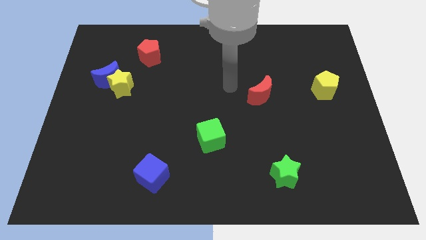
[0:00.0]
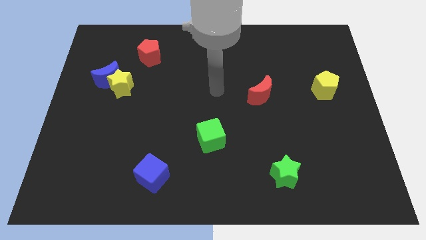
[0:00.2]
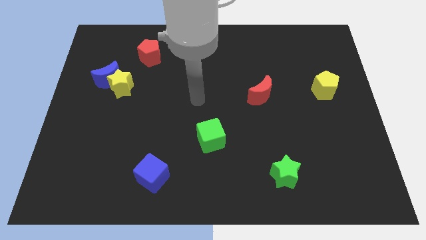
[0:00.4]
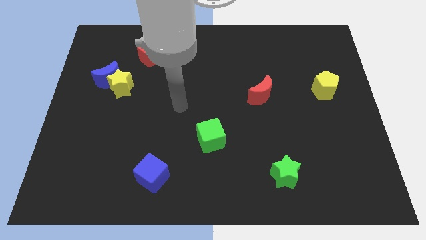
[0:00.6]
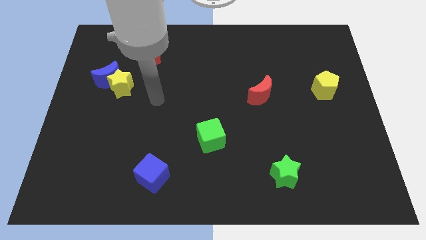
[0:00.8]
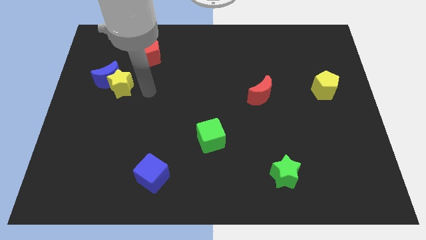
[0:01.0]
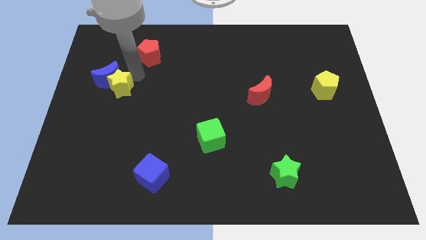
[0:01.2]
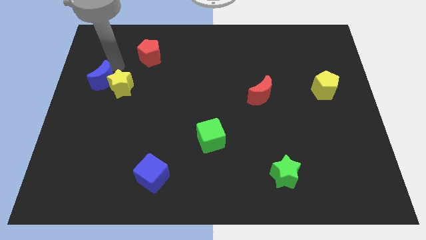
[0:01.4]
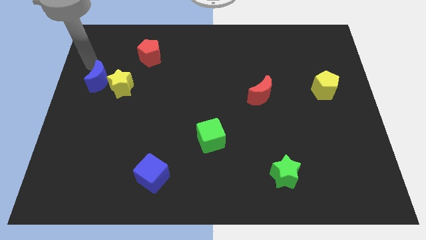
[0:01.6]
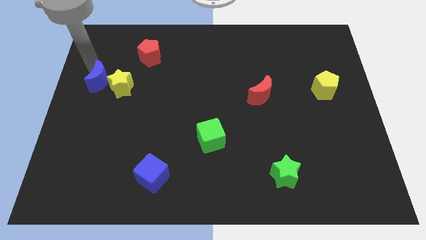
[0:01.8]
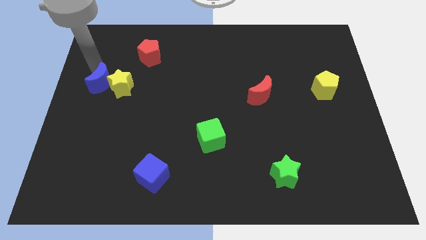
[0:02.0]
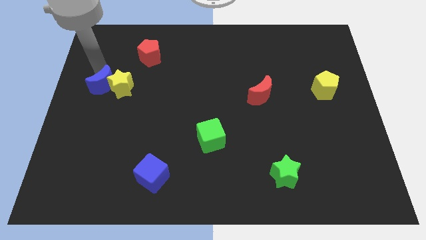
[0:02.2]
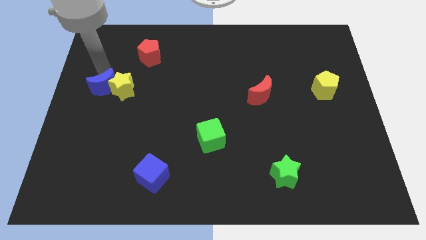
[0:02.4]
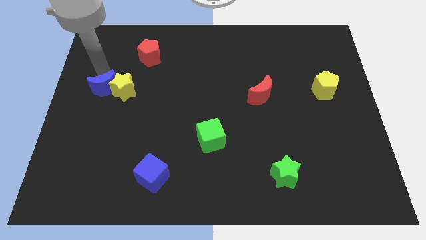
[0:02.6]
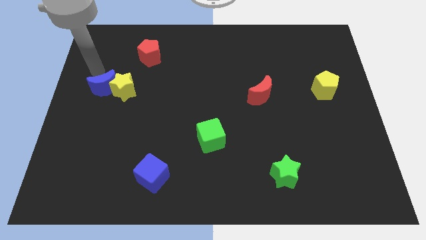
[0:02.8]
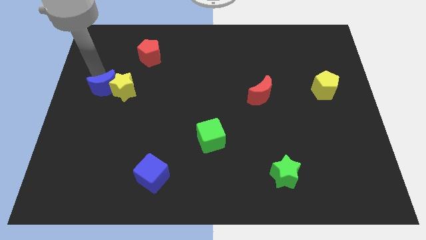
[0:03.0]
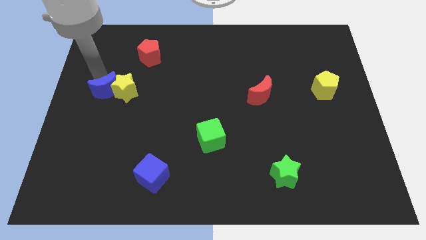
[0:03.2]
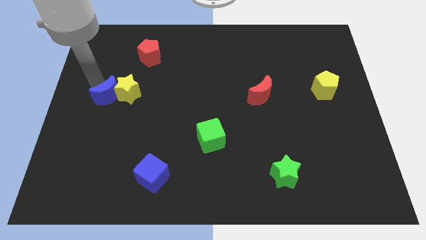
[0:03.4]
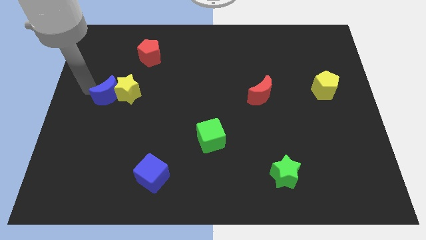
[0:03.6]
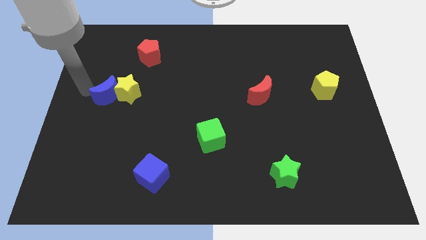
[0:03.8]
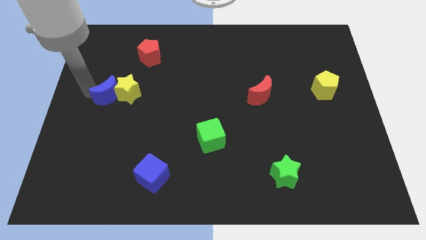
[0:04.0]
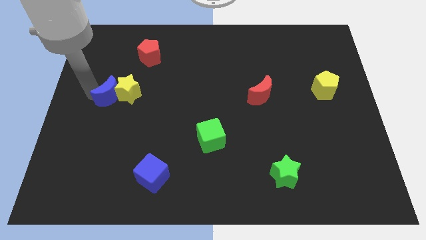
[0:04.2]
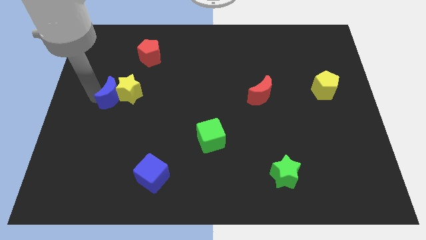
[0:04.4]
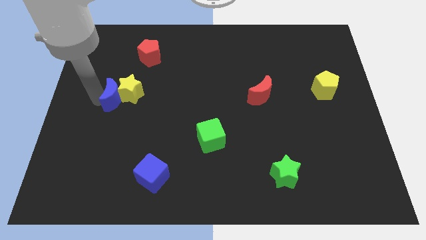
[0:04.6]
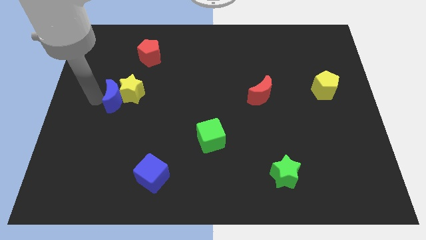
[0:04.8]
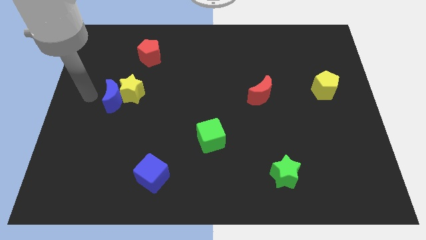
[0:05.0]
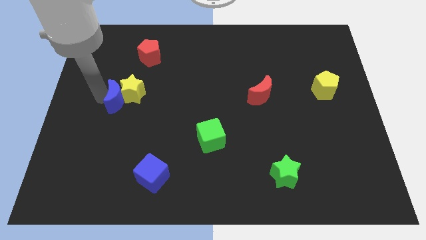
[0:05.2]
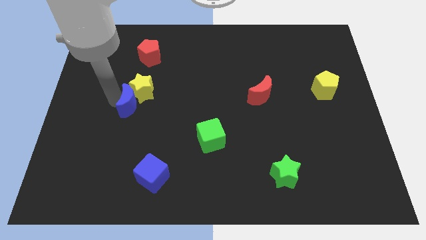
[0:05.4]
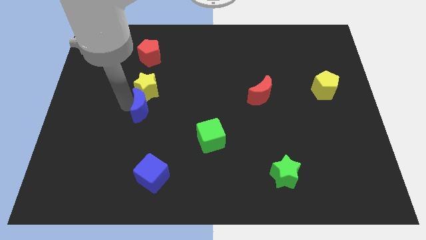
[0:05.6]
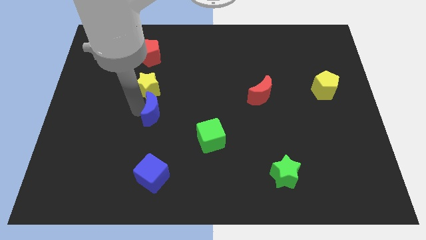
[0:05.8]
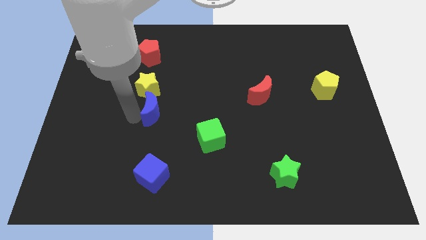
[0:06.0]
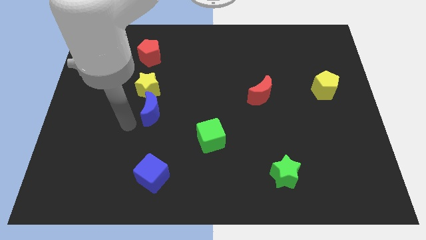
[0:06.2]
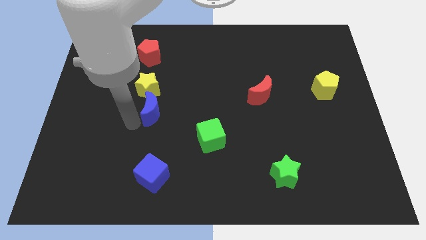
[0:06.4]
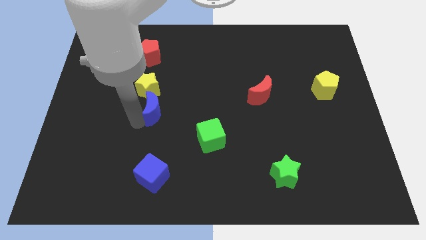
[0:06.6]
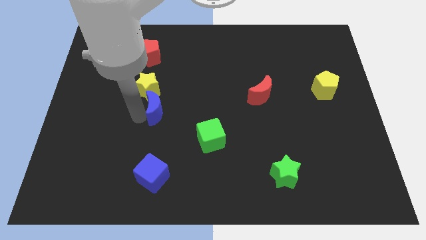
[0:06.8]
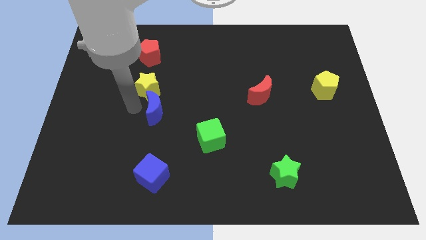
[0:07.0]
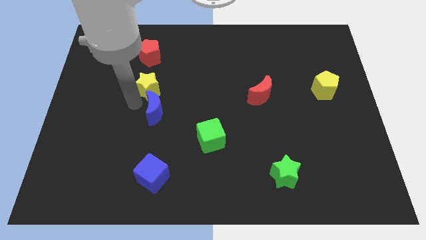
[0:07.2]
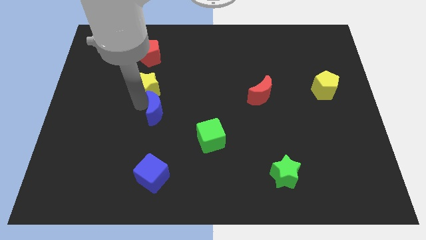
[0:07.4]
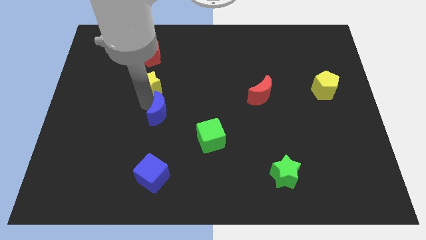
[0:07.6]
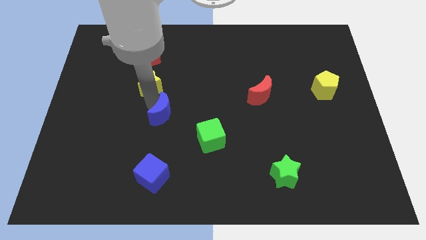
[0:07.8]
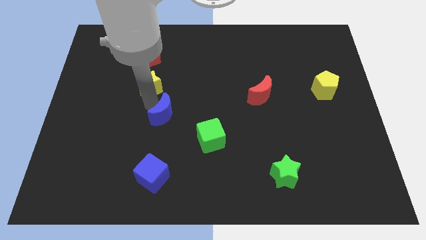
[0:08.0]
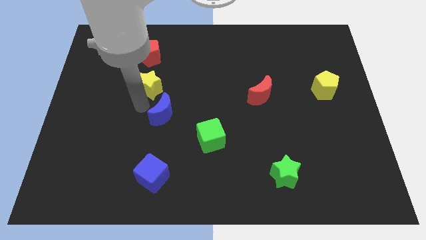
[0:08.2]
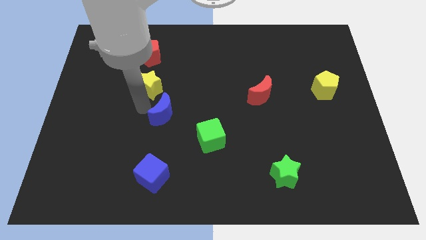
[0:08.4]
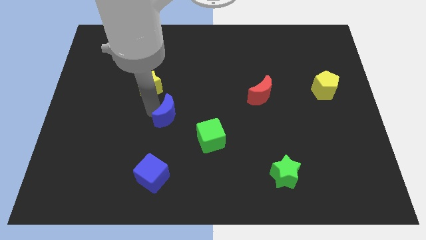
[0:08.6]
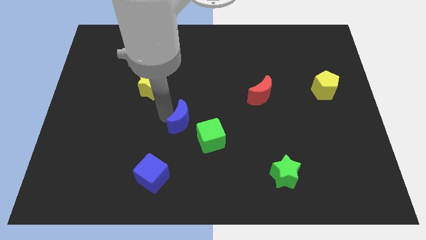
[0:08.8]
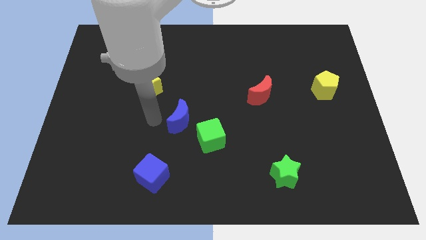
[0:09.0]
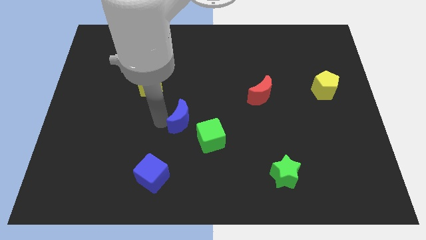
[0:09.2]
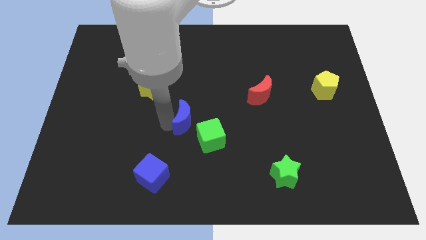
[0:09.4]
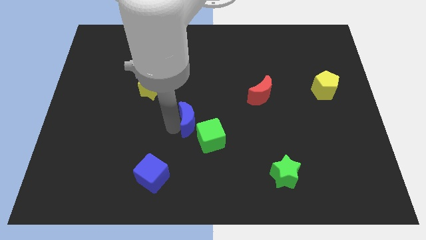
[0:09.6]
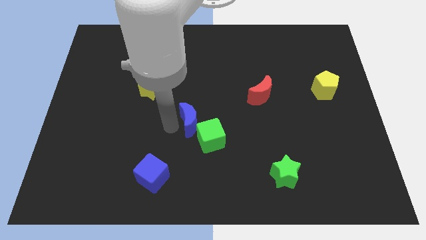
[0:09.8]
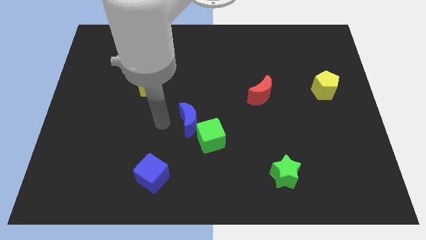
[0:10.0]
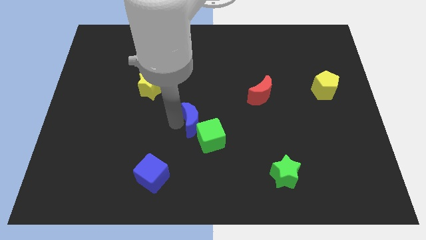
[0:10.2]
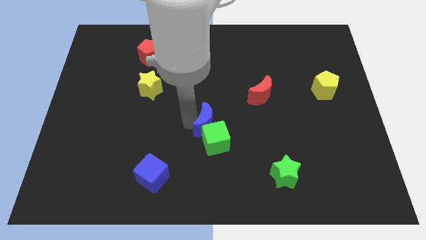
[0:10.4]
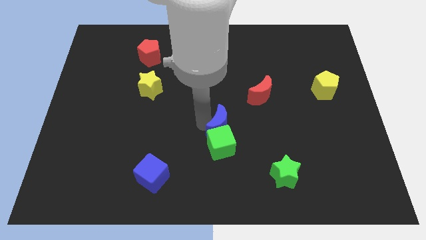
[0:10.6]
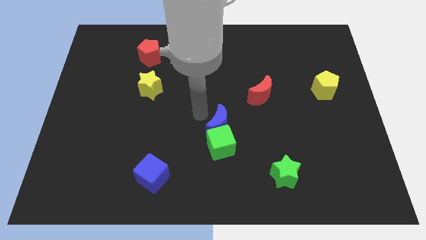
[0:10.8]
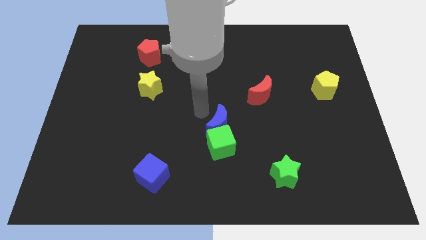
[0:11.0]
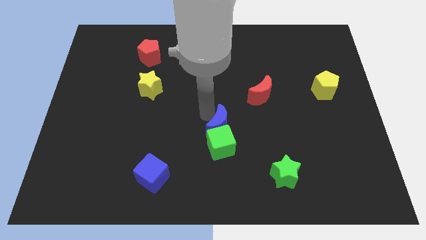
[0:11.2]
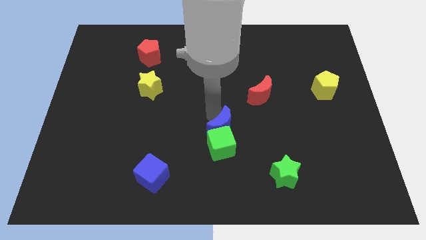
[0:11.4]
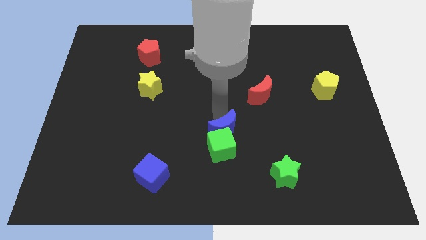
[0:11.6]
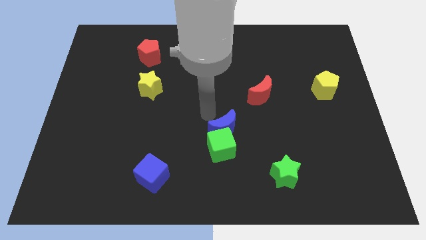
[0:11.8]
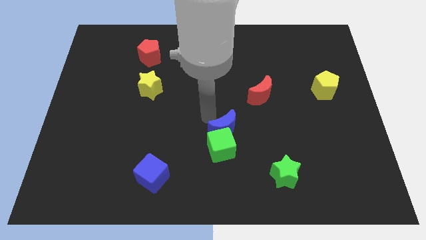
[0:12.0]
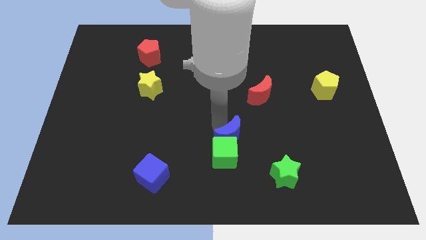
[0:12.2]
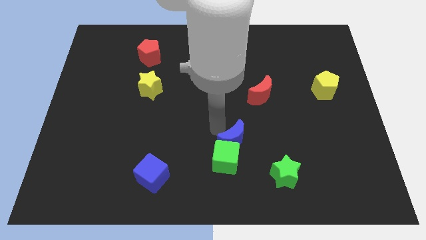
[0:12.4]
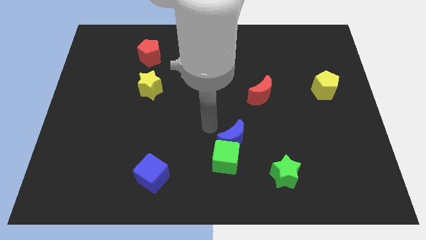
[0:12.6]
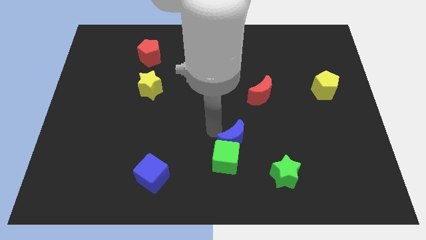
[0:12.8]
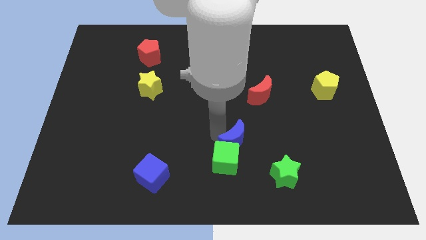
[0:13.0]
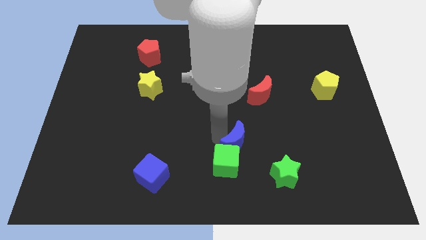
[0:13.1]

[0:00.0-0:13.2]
slide the blue moon to the top left side of the green star
